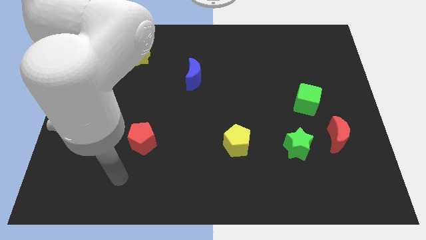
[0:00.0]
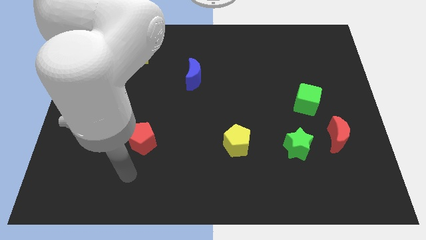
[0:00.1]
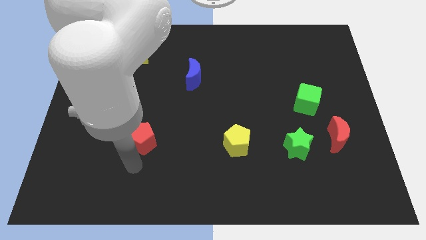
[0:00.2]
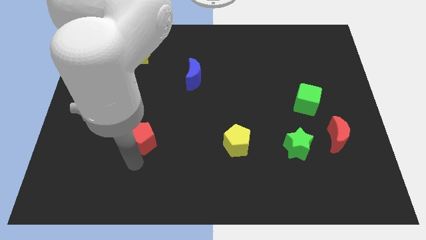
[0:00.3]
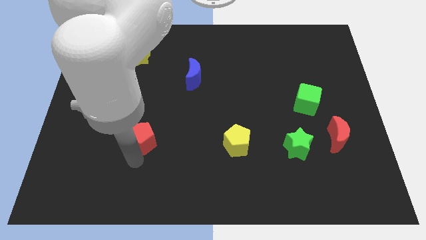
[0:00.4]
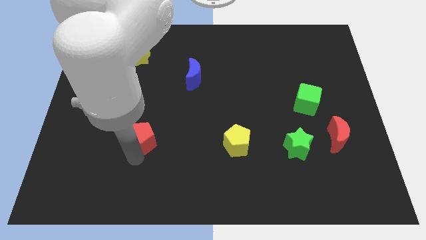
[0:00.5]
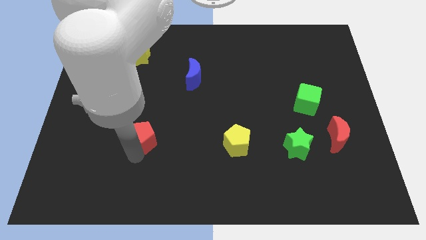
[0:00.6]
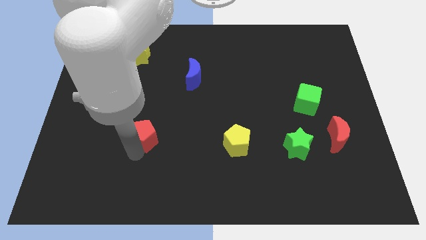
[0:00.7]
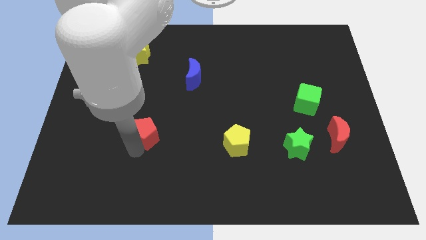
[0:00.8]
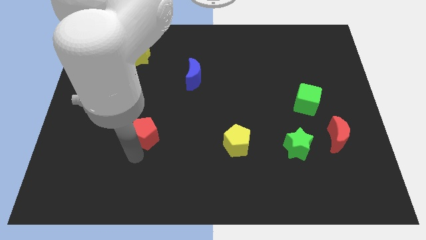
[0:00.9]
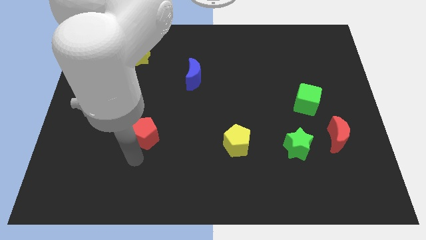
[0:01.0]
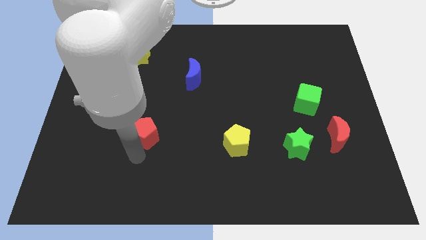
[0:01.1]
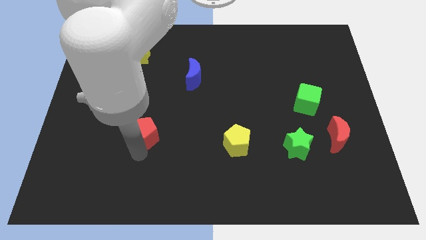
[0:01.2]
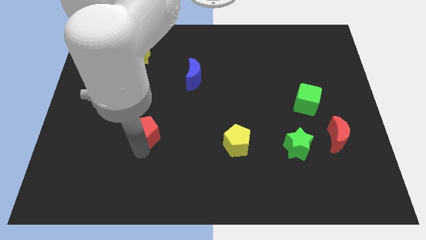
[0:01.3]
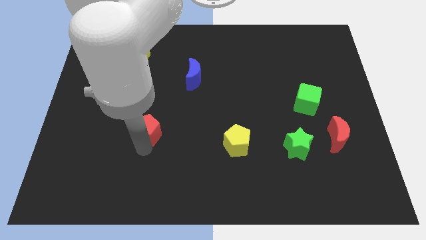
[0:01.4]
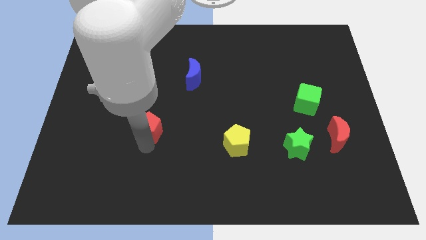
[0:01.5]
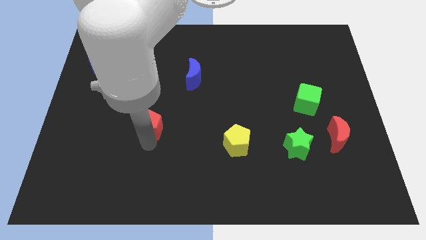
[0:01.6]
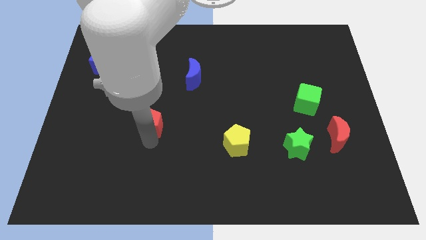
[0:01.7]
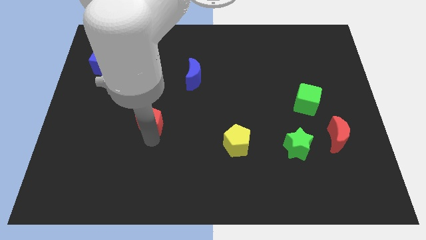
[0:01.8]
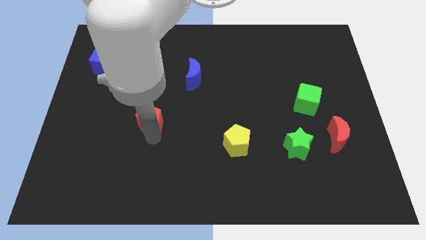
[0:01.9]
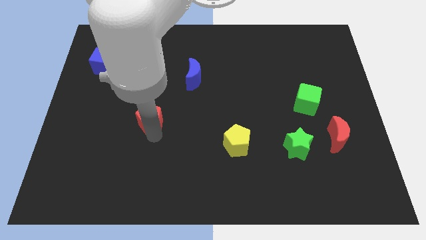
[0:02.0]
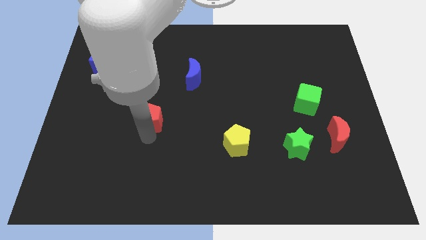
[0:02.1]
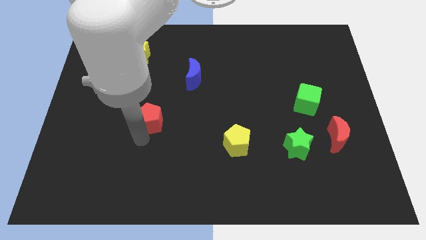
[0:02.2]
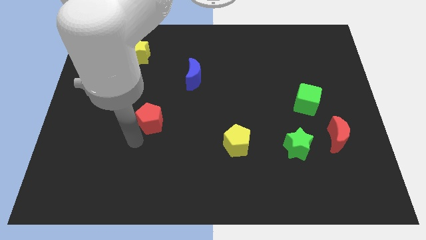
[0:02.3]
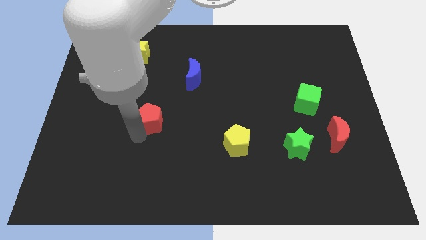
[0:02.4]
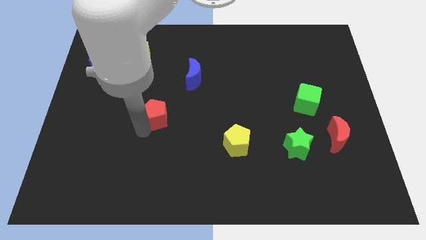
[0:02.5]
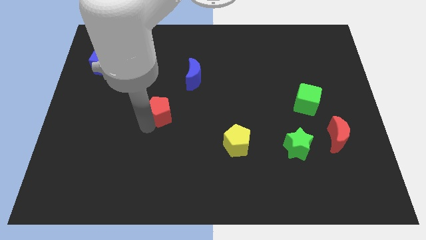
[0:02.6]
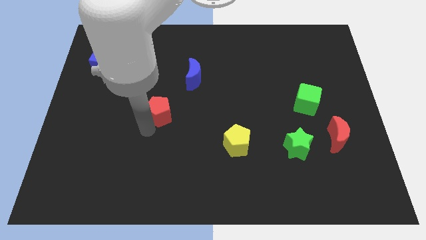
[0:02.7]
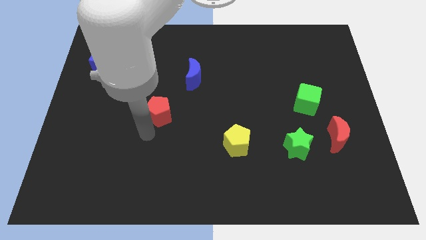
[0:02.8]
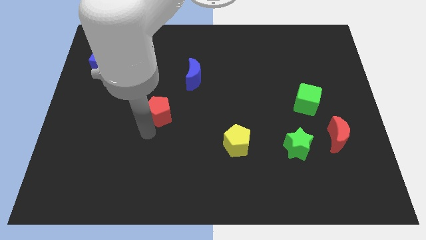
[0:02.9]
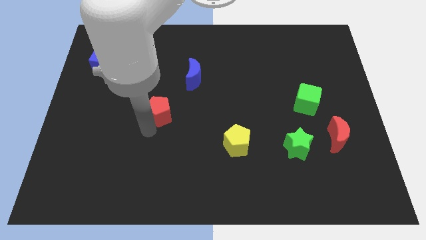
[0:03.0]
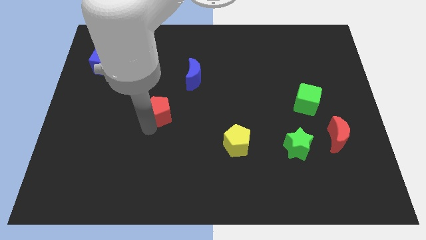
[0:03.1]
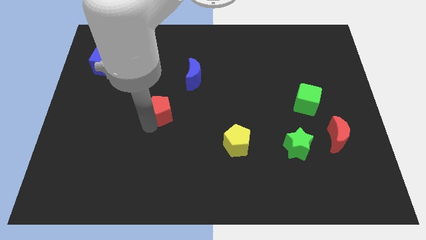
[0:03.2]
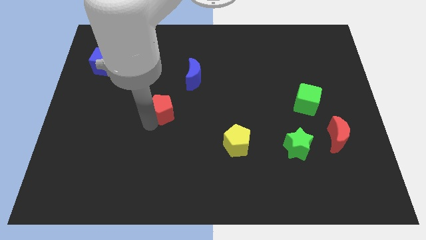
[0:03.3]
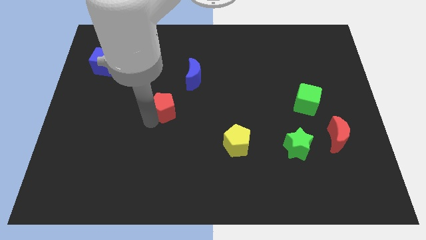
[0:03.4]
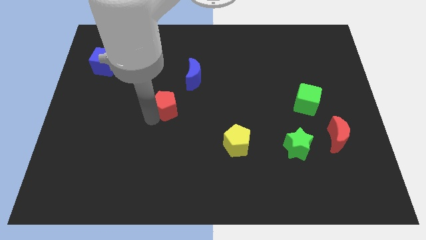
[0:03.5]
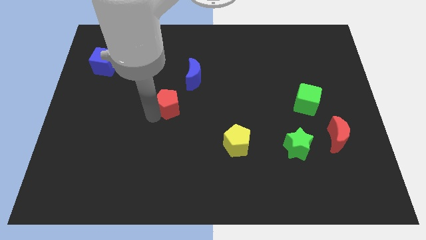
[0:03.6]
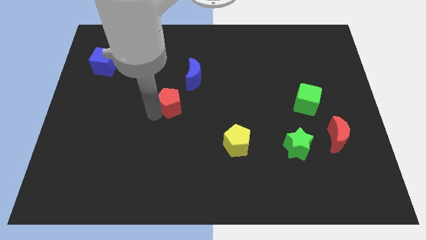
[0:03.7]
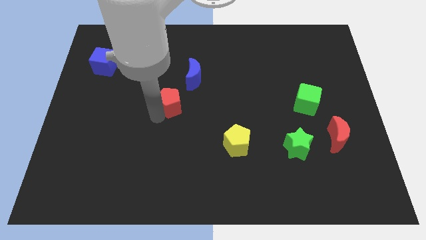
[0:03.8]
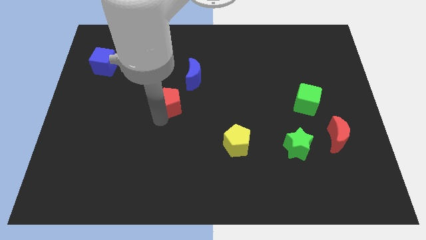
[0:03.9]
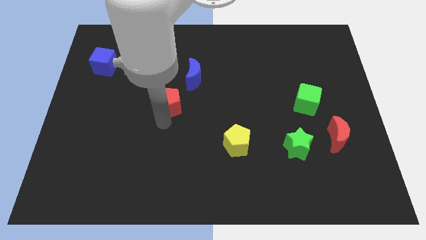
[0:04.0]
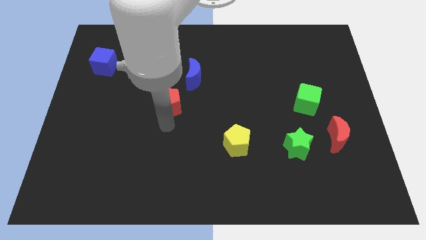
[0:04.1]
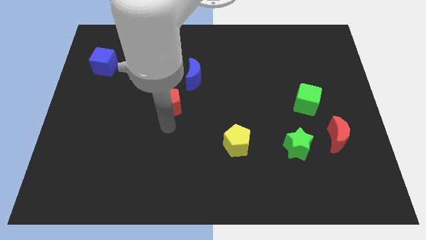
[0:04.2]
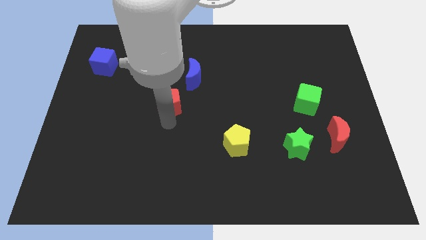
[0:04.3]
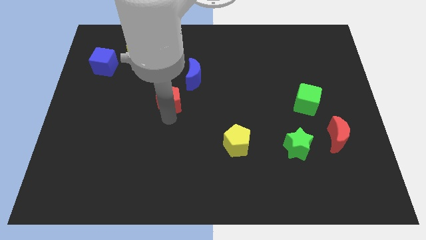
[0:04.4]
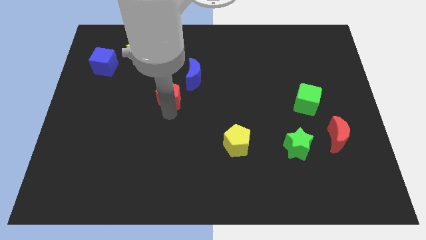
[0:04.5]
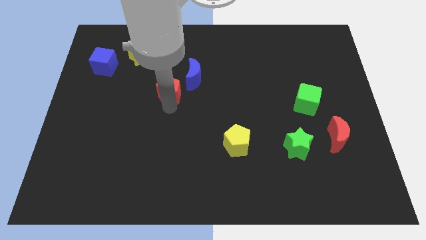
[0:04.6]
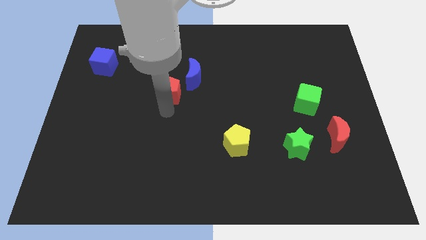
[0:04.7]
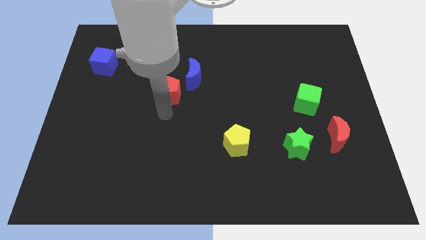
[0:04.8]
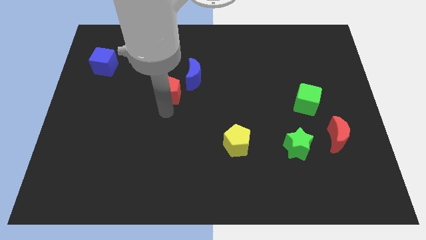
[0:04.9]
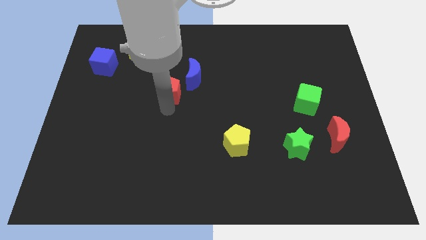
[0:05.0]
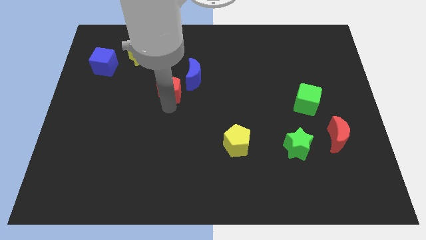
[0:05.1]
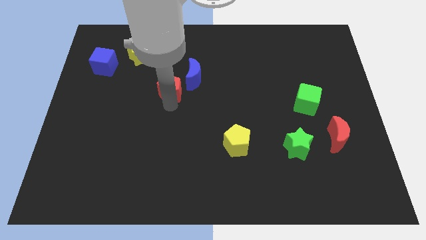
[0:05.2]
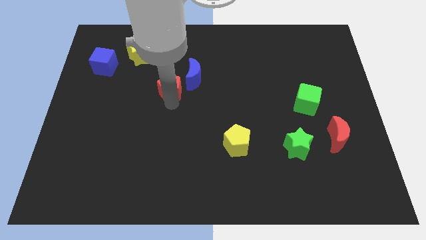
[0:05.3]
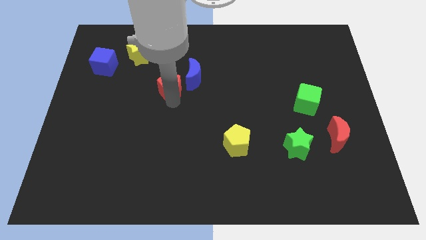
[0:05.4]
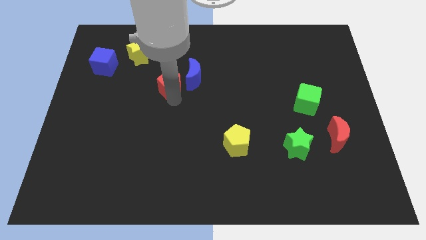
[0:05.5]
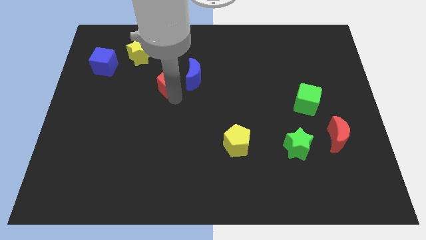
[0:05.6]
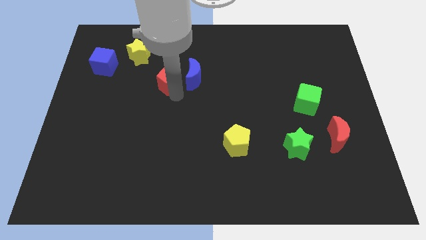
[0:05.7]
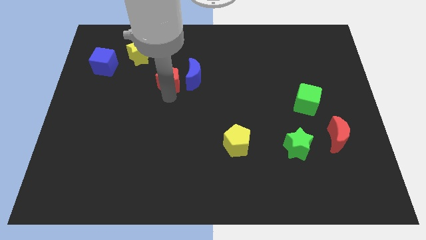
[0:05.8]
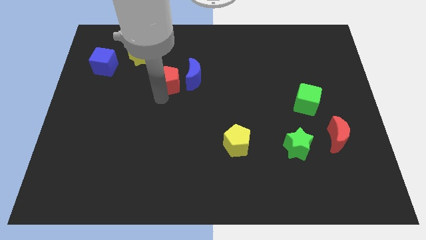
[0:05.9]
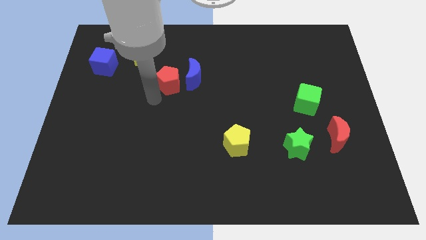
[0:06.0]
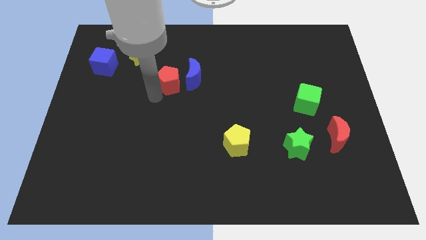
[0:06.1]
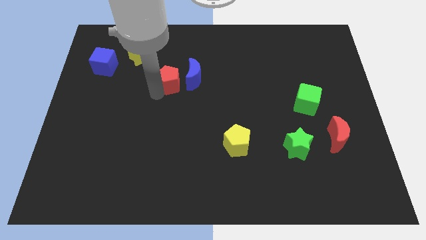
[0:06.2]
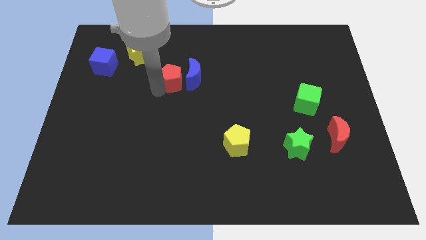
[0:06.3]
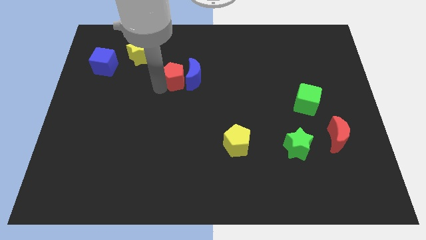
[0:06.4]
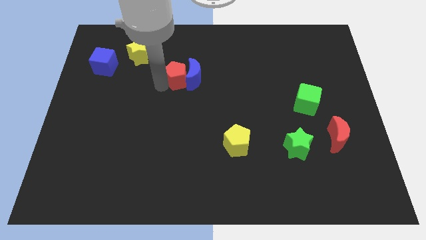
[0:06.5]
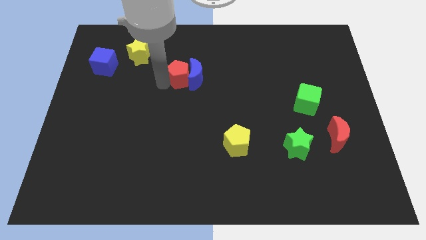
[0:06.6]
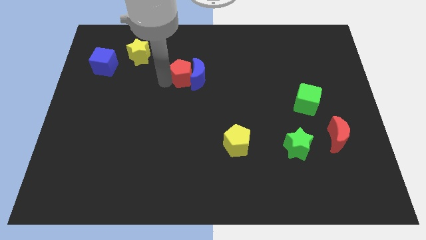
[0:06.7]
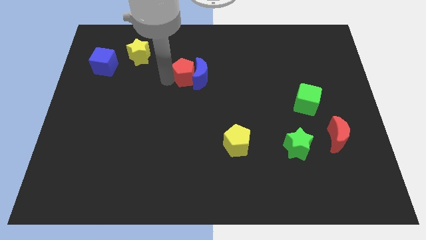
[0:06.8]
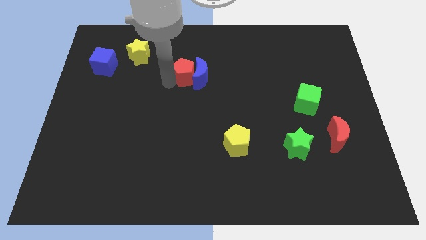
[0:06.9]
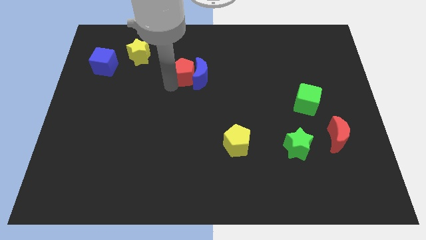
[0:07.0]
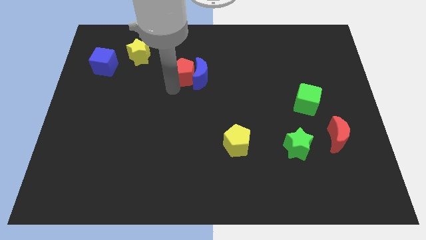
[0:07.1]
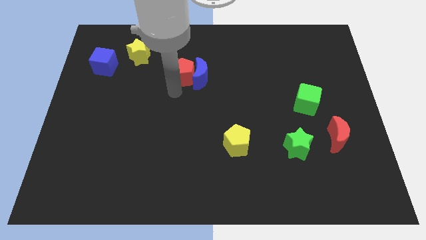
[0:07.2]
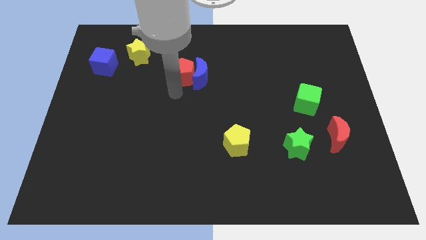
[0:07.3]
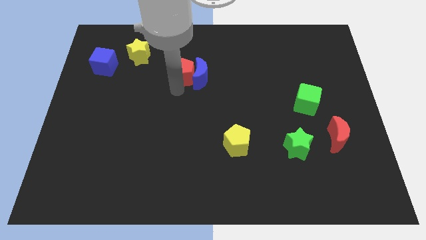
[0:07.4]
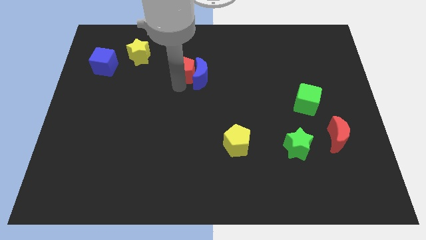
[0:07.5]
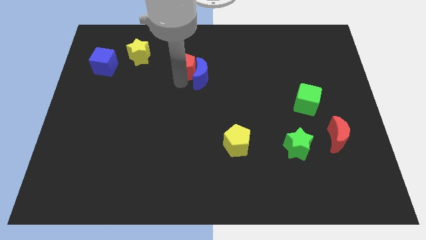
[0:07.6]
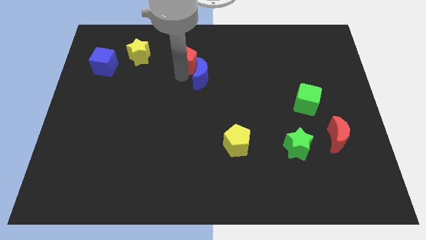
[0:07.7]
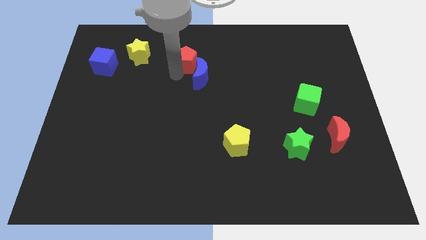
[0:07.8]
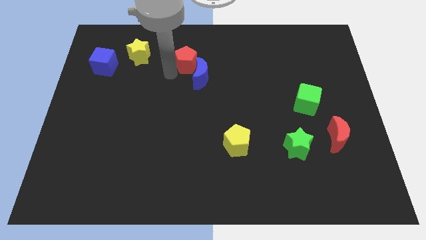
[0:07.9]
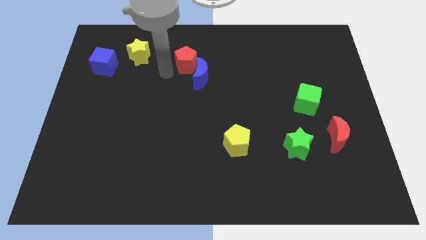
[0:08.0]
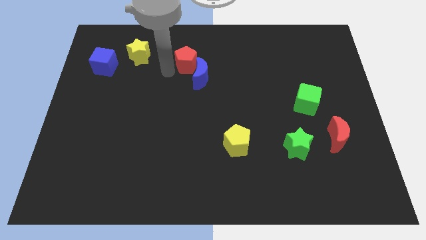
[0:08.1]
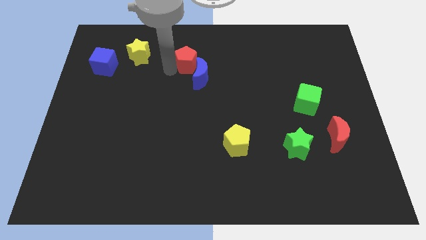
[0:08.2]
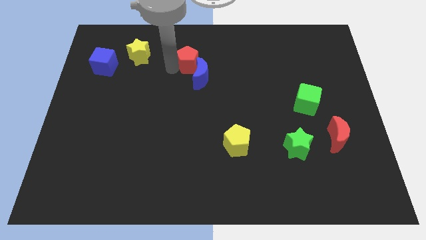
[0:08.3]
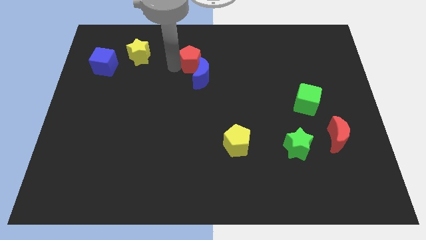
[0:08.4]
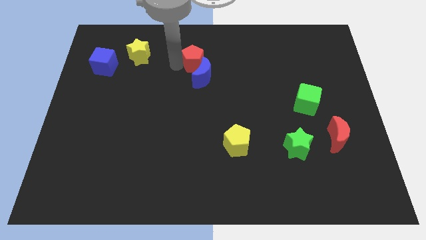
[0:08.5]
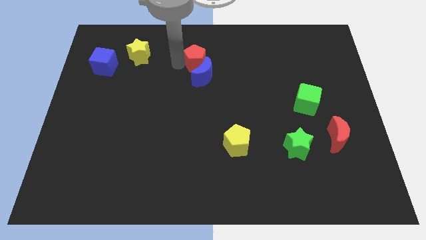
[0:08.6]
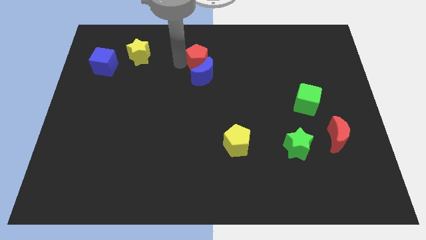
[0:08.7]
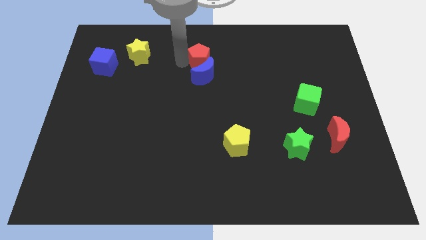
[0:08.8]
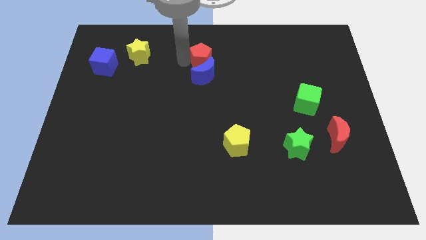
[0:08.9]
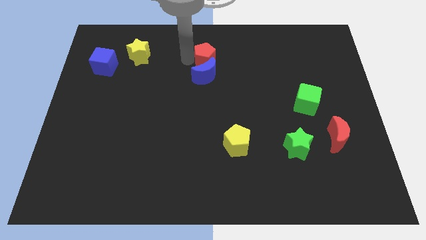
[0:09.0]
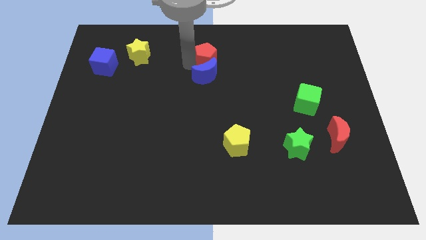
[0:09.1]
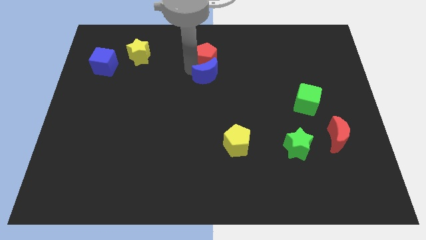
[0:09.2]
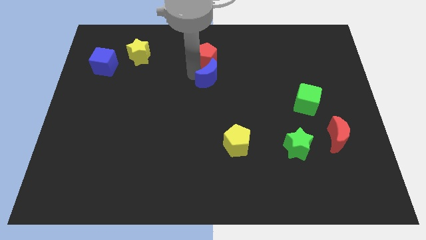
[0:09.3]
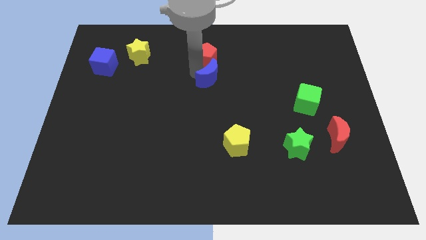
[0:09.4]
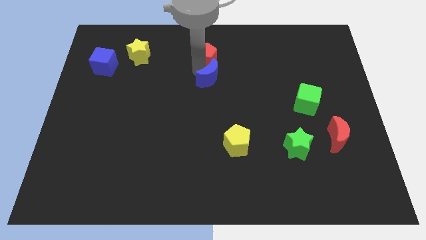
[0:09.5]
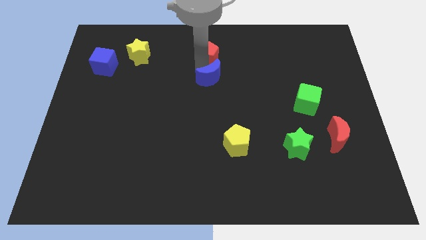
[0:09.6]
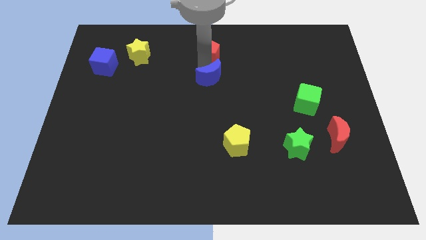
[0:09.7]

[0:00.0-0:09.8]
move the red pentagon to the top
